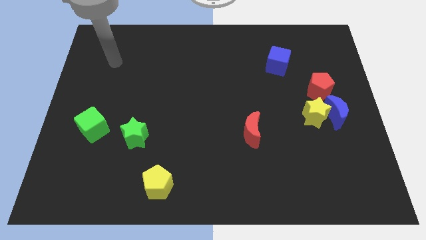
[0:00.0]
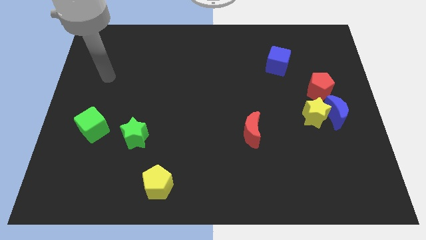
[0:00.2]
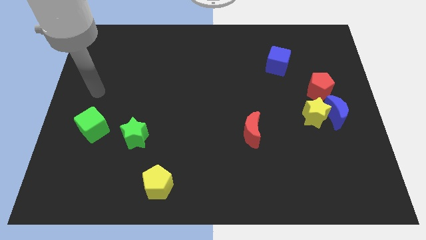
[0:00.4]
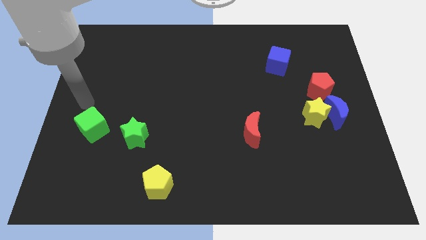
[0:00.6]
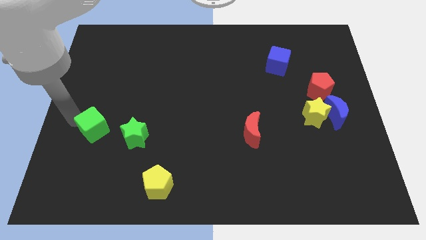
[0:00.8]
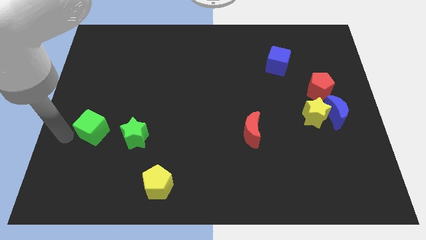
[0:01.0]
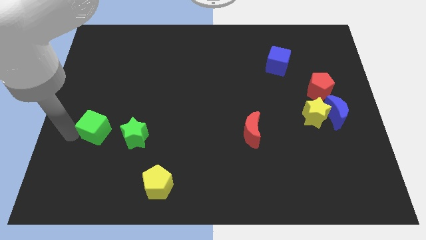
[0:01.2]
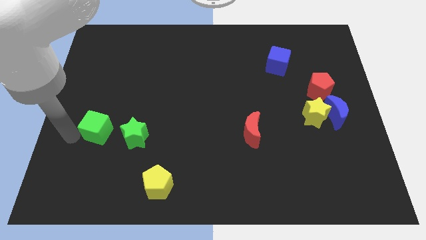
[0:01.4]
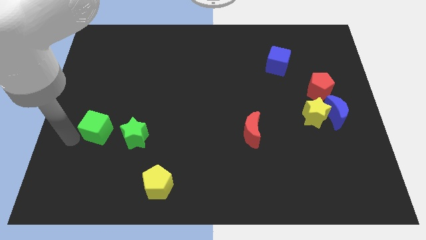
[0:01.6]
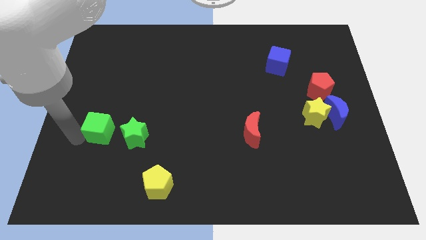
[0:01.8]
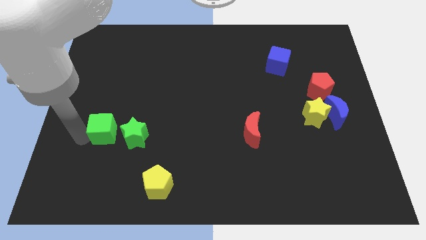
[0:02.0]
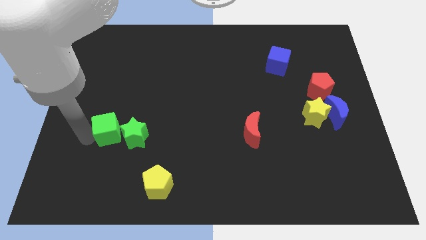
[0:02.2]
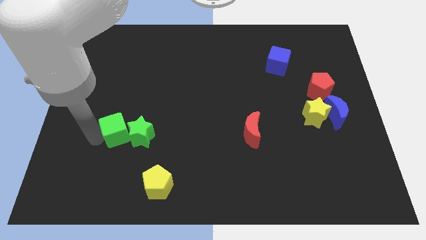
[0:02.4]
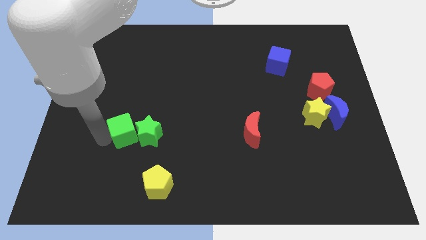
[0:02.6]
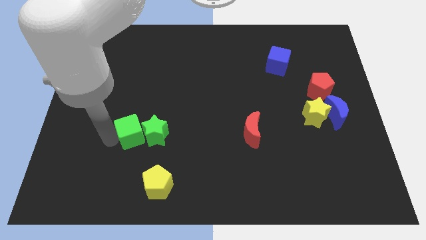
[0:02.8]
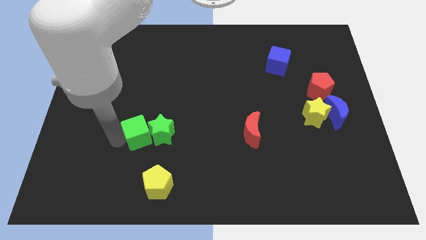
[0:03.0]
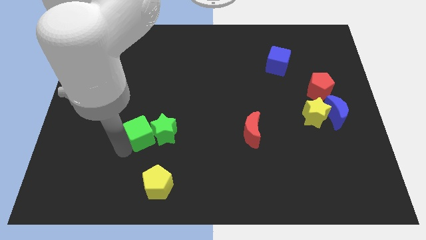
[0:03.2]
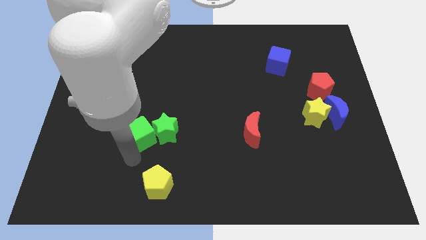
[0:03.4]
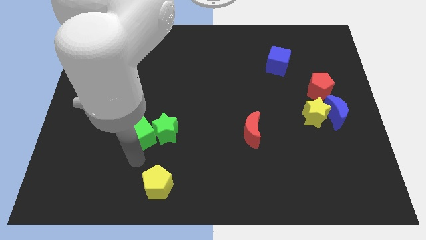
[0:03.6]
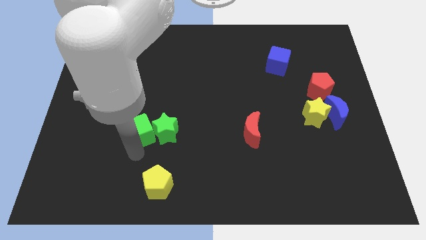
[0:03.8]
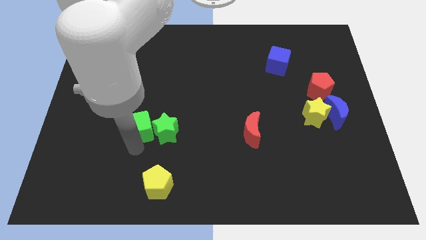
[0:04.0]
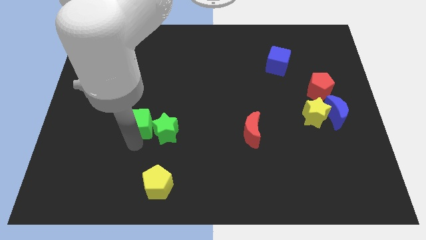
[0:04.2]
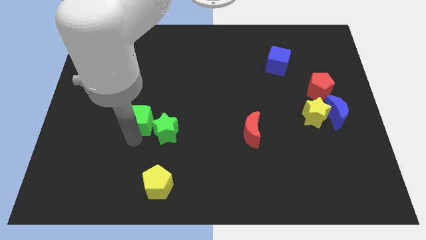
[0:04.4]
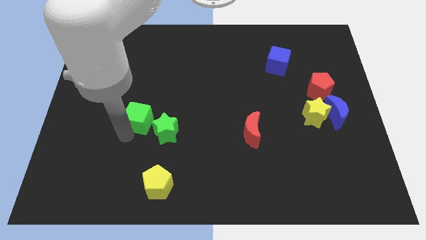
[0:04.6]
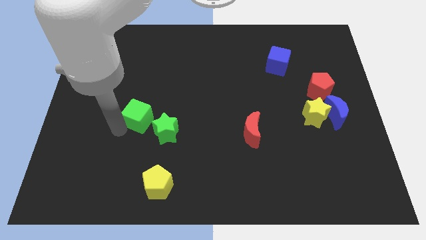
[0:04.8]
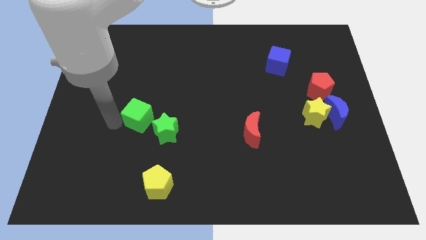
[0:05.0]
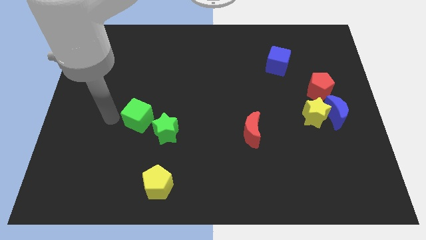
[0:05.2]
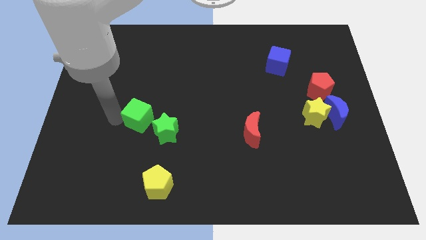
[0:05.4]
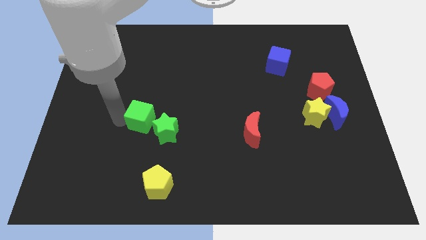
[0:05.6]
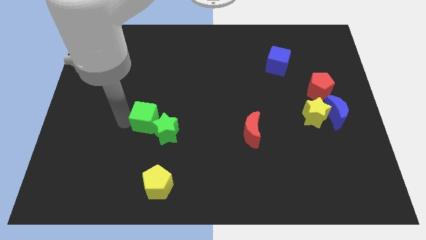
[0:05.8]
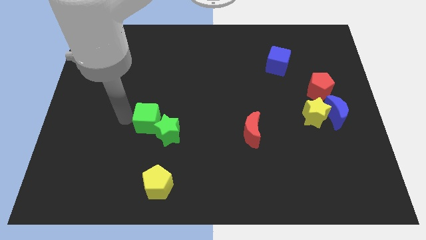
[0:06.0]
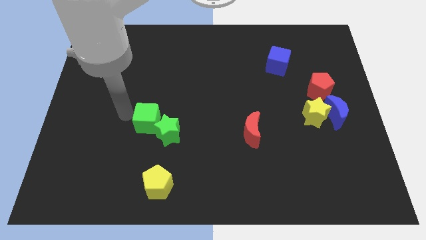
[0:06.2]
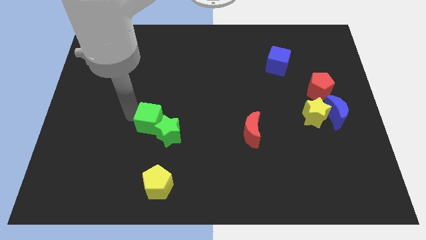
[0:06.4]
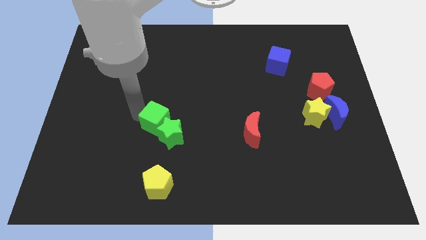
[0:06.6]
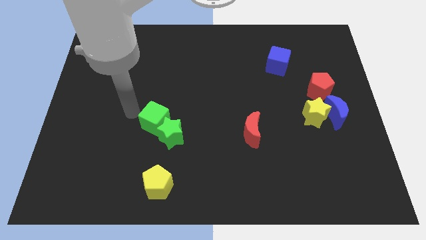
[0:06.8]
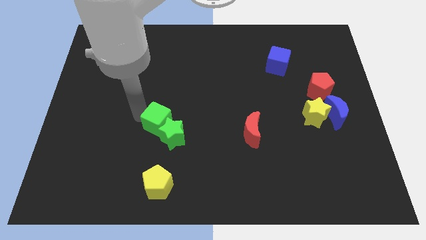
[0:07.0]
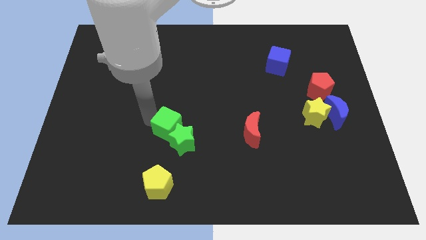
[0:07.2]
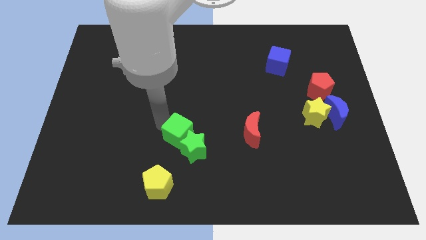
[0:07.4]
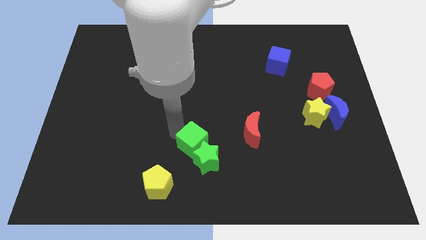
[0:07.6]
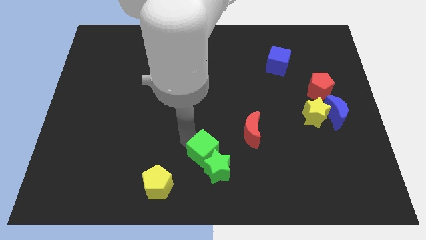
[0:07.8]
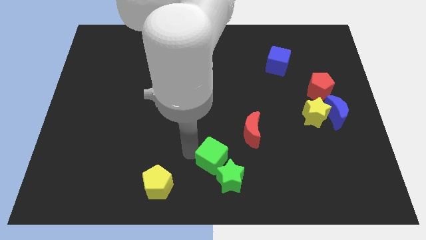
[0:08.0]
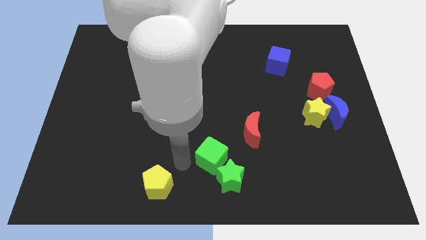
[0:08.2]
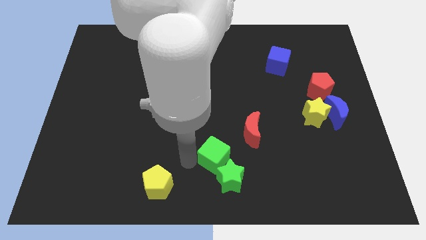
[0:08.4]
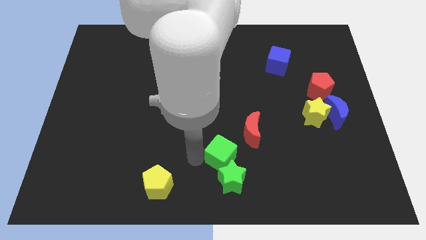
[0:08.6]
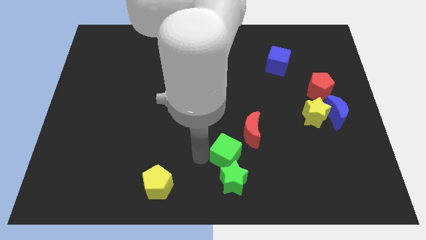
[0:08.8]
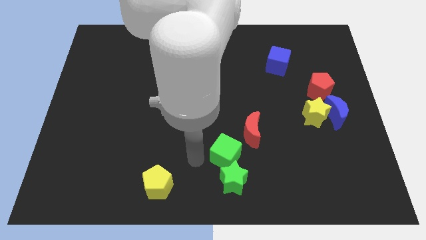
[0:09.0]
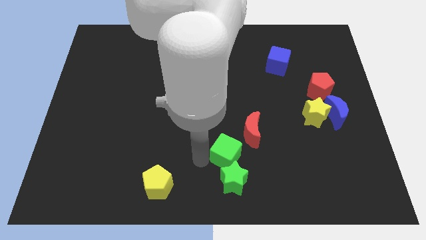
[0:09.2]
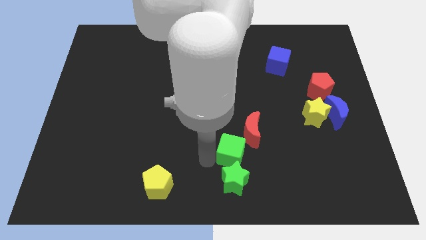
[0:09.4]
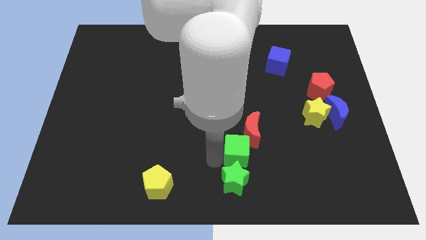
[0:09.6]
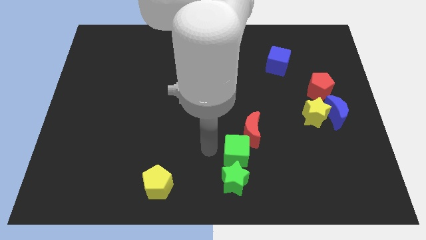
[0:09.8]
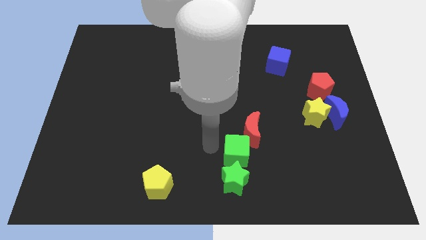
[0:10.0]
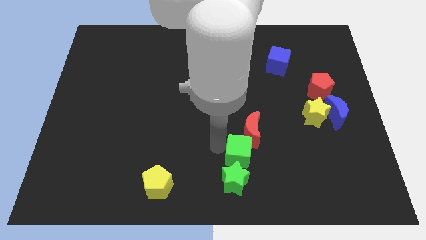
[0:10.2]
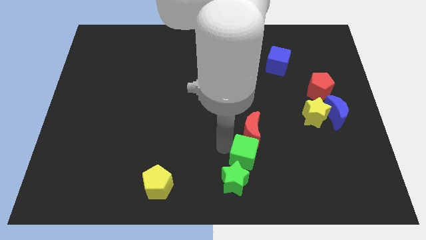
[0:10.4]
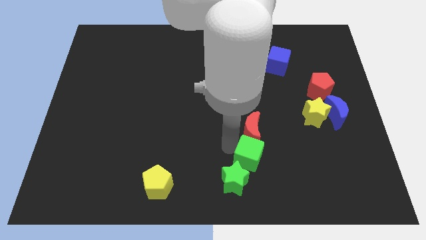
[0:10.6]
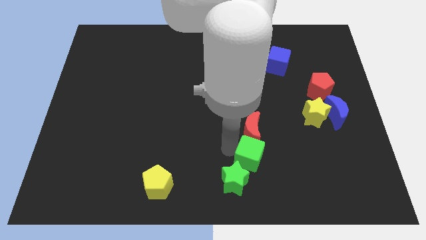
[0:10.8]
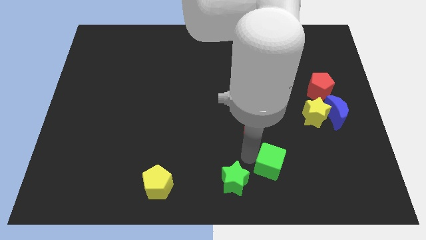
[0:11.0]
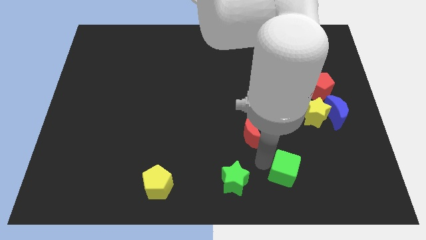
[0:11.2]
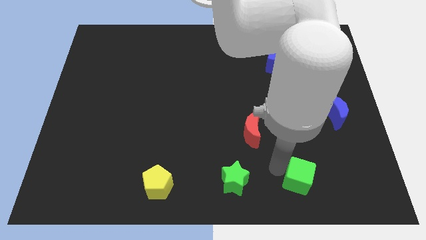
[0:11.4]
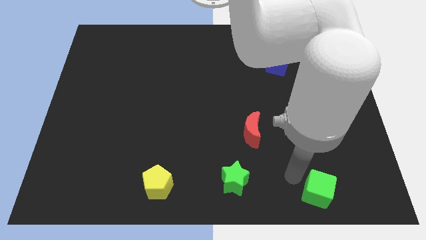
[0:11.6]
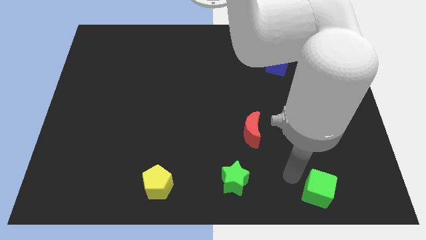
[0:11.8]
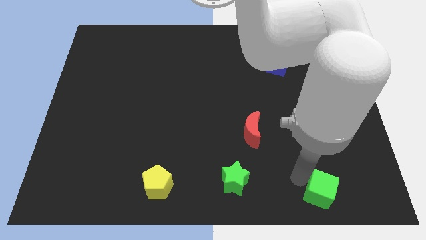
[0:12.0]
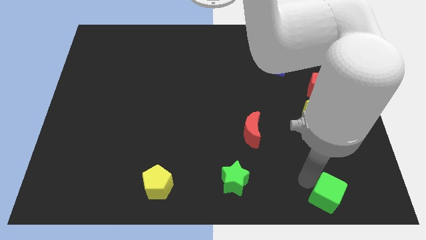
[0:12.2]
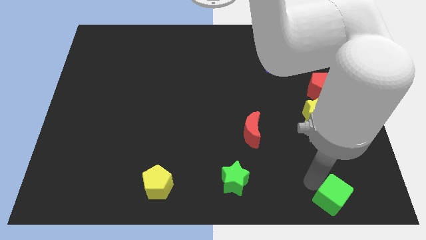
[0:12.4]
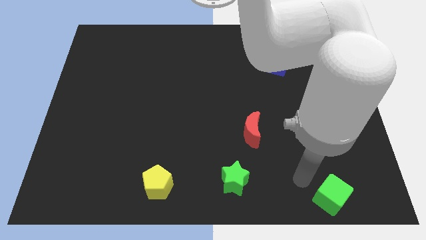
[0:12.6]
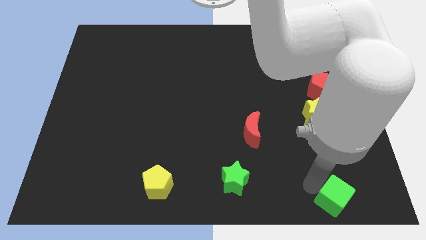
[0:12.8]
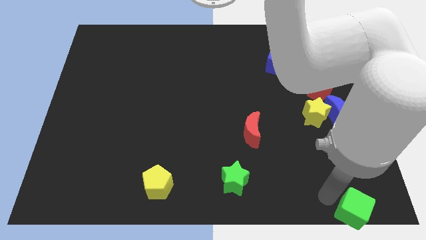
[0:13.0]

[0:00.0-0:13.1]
slide the green cube to the lower right corner
